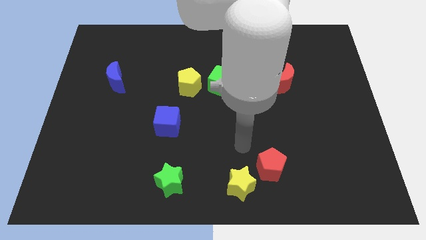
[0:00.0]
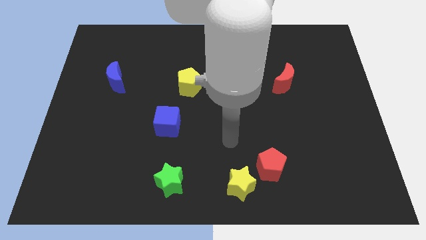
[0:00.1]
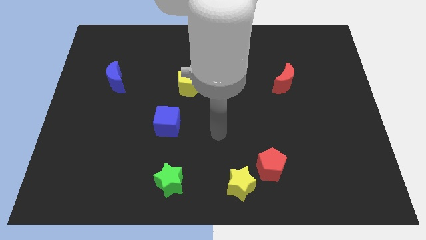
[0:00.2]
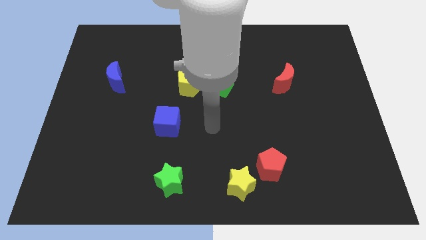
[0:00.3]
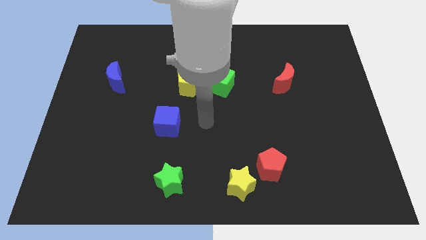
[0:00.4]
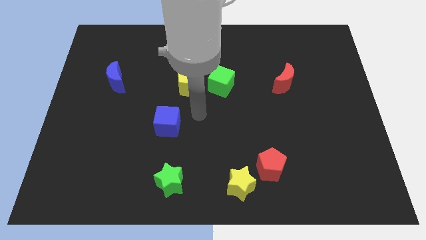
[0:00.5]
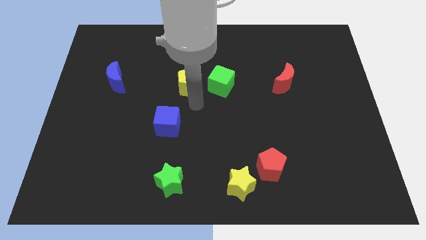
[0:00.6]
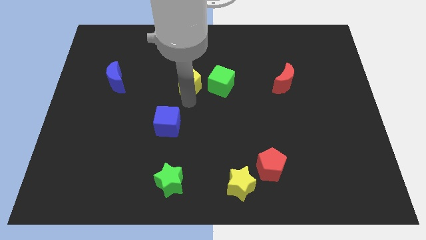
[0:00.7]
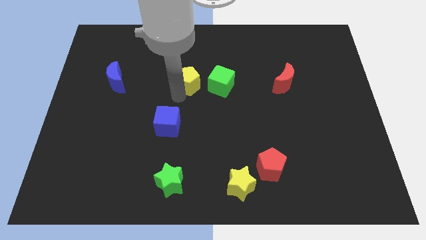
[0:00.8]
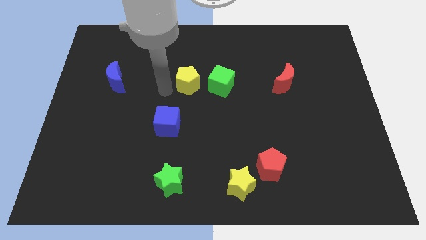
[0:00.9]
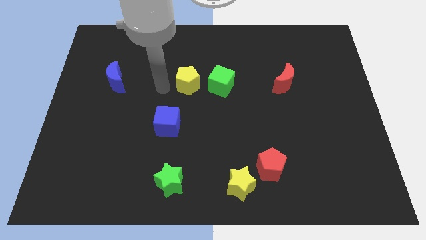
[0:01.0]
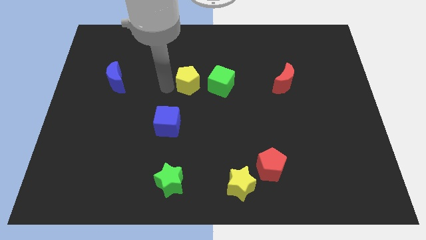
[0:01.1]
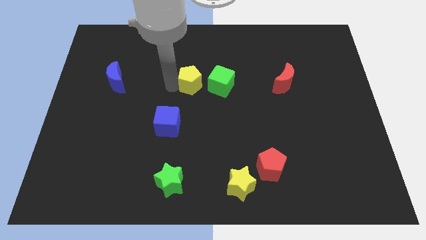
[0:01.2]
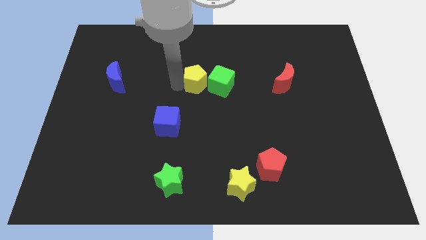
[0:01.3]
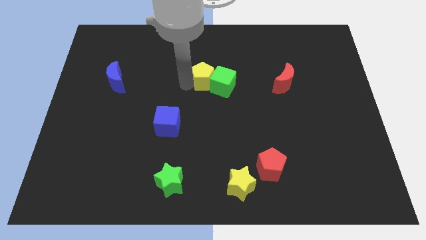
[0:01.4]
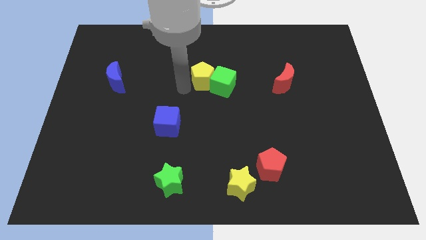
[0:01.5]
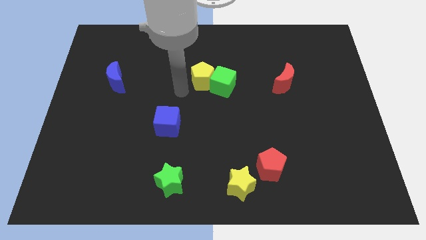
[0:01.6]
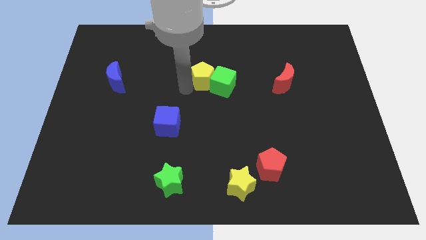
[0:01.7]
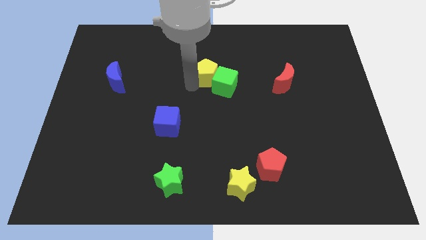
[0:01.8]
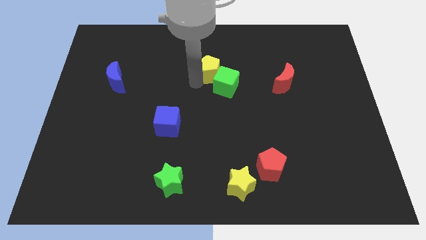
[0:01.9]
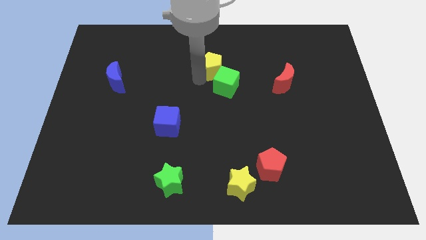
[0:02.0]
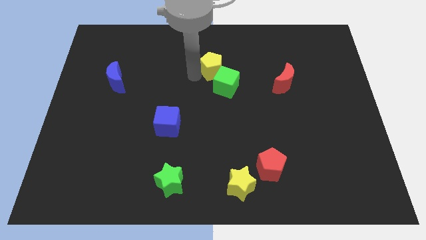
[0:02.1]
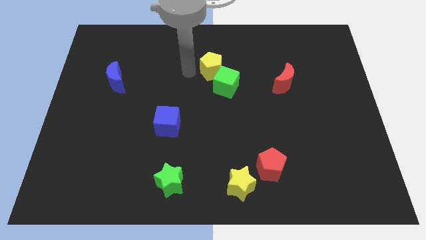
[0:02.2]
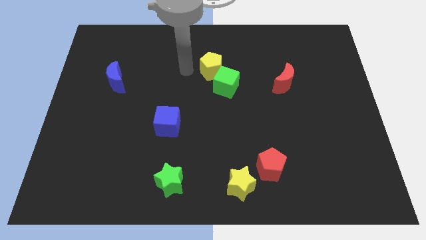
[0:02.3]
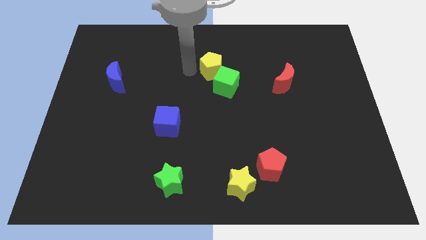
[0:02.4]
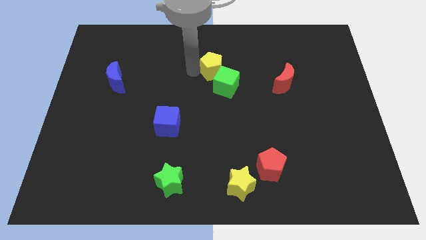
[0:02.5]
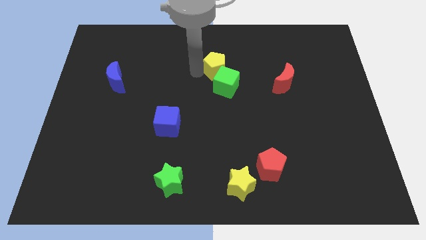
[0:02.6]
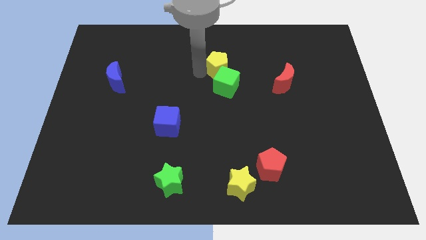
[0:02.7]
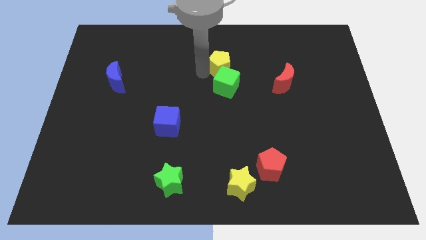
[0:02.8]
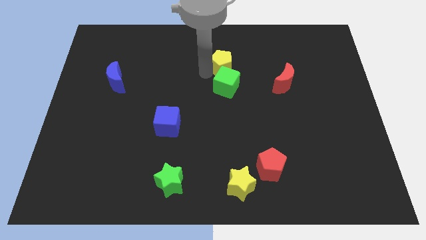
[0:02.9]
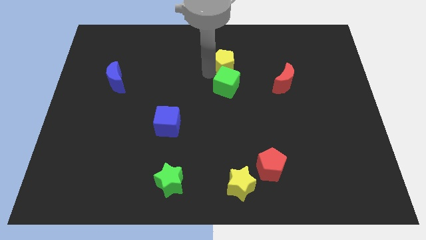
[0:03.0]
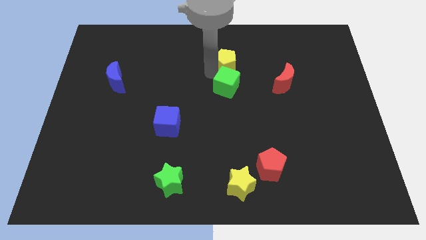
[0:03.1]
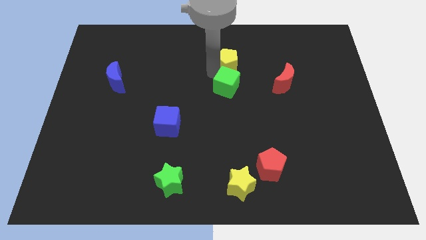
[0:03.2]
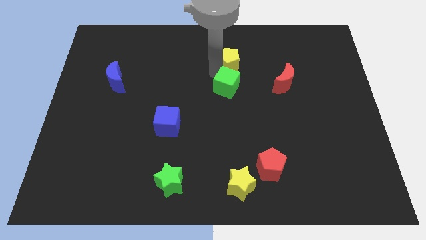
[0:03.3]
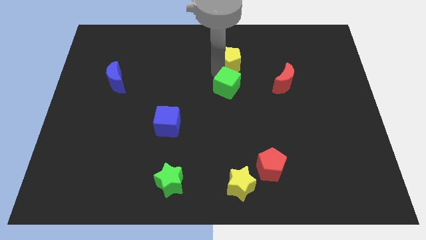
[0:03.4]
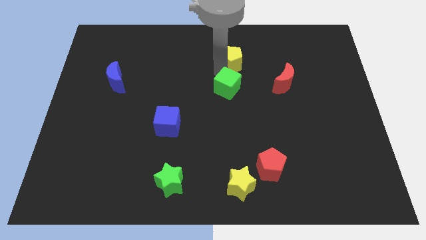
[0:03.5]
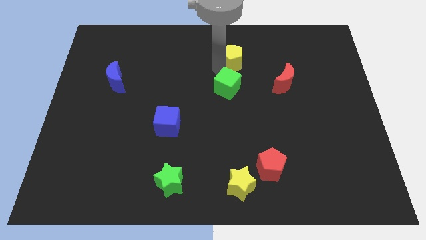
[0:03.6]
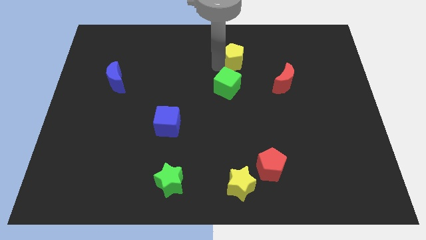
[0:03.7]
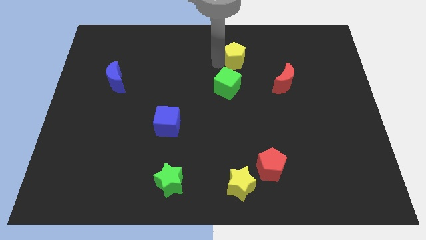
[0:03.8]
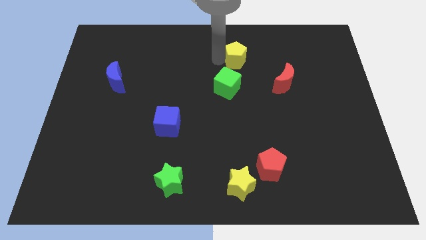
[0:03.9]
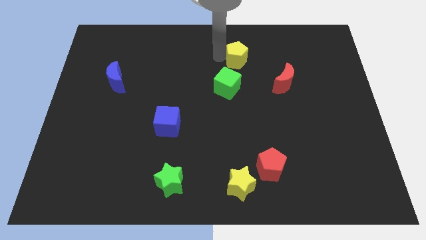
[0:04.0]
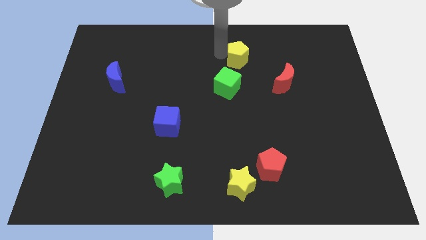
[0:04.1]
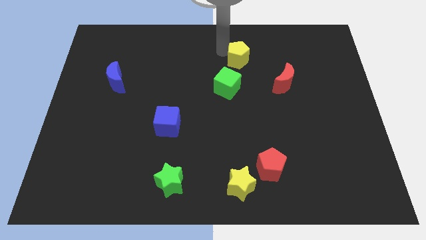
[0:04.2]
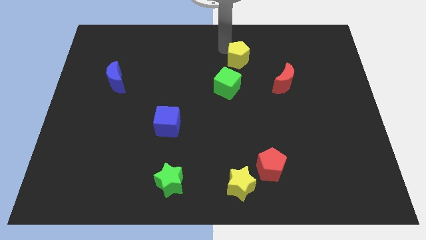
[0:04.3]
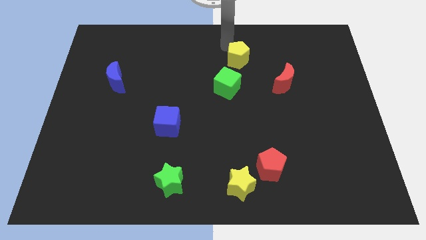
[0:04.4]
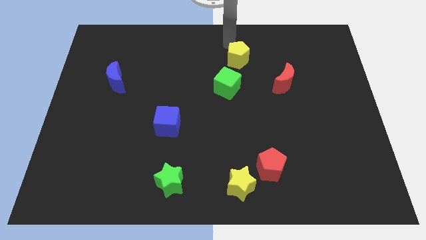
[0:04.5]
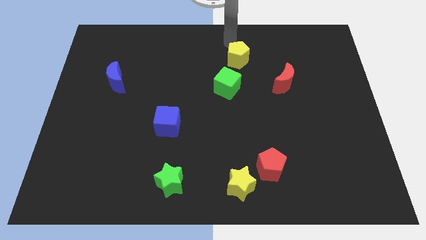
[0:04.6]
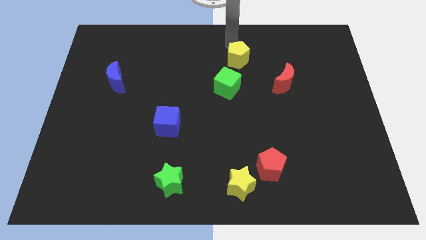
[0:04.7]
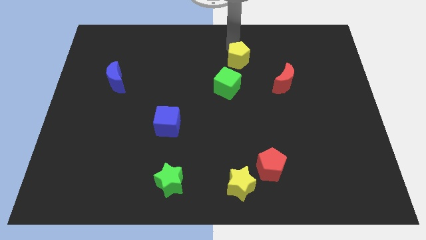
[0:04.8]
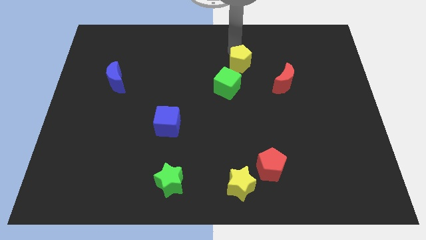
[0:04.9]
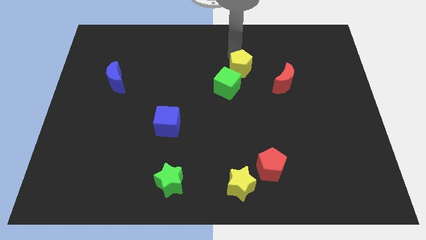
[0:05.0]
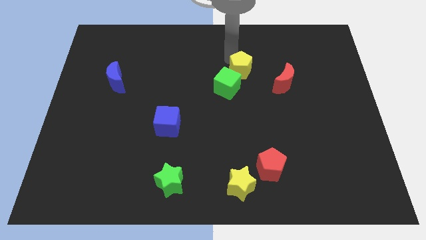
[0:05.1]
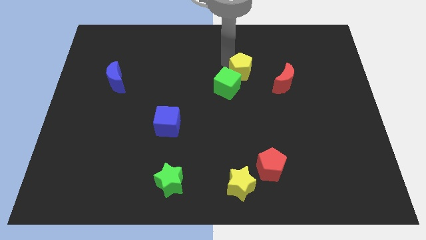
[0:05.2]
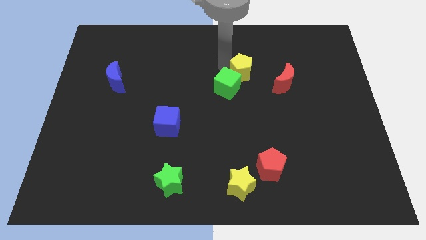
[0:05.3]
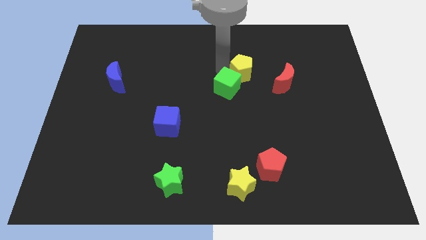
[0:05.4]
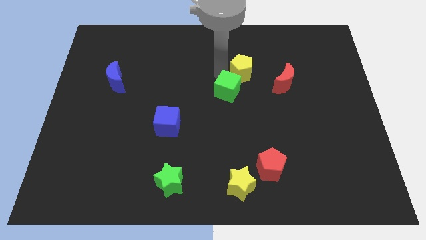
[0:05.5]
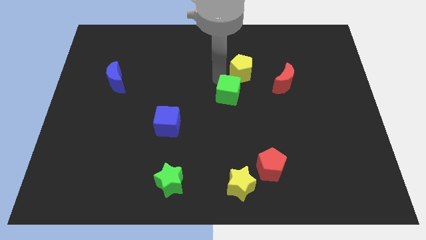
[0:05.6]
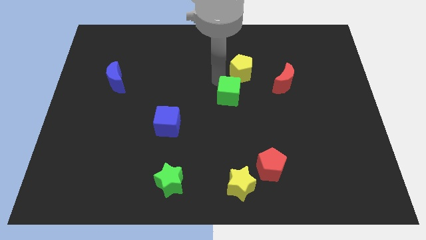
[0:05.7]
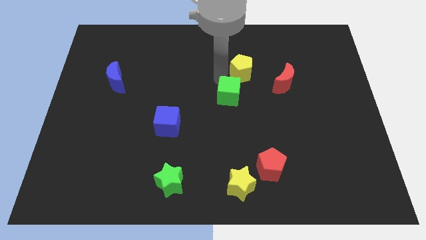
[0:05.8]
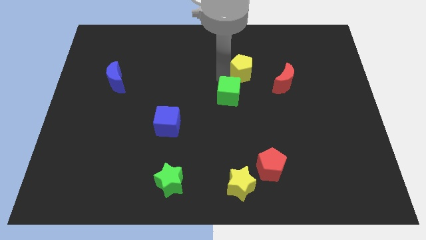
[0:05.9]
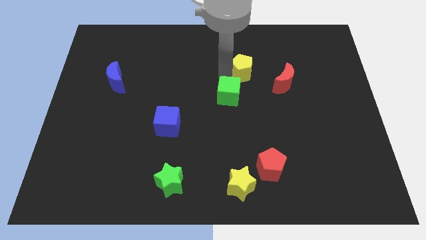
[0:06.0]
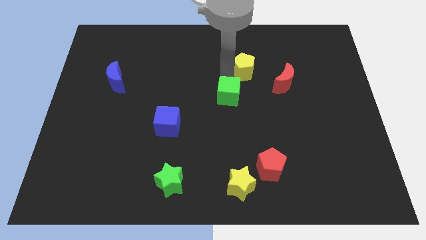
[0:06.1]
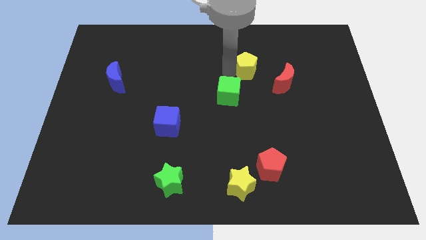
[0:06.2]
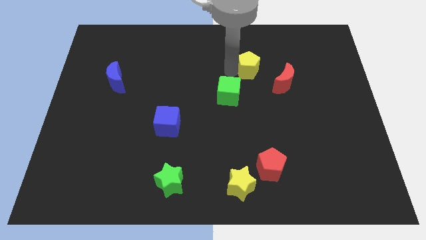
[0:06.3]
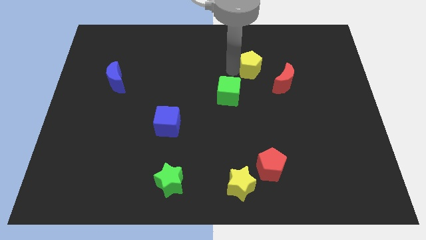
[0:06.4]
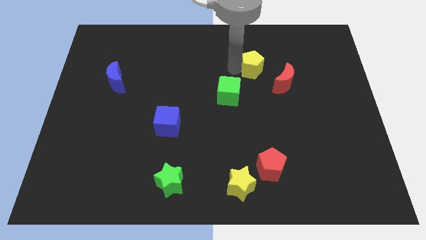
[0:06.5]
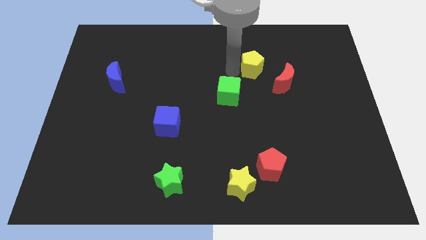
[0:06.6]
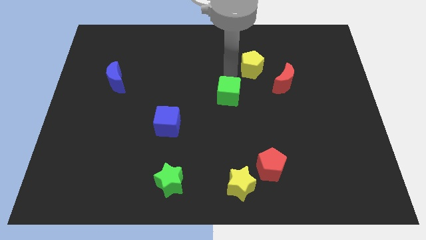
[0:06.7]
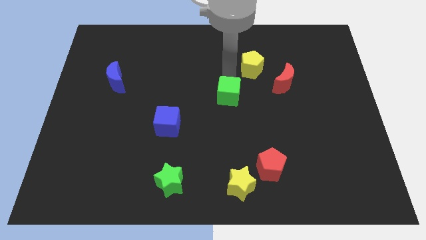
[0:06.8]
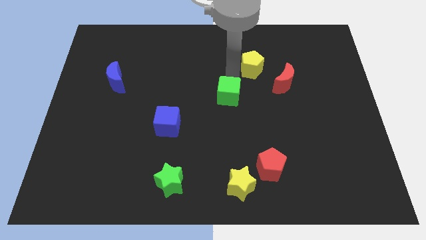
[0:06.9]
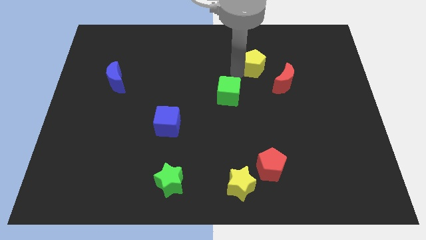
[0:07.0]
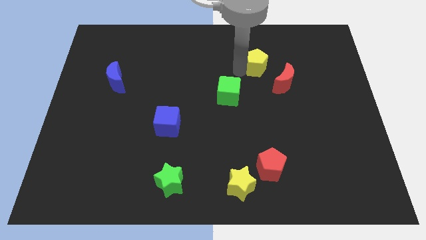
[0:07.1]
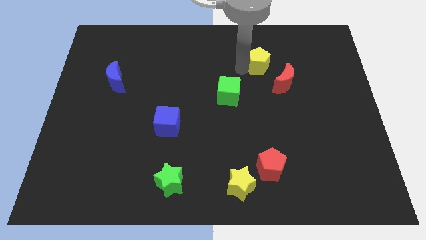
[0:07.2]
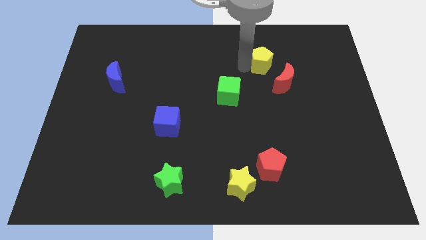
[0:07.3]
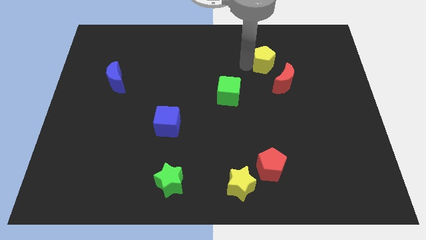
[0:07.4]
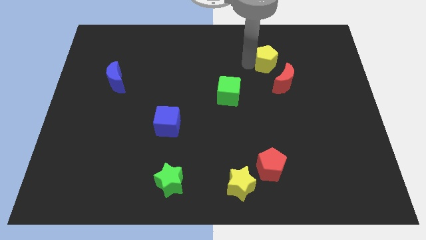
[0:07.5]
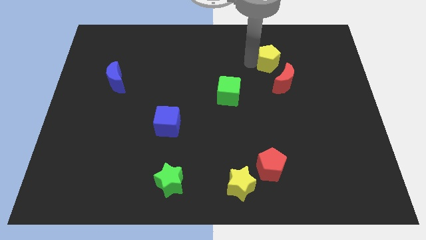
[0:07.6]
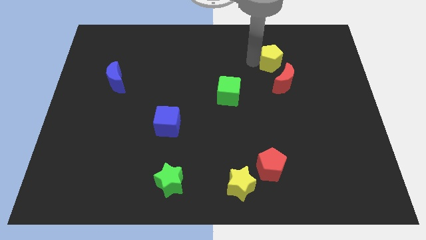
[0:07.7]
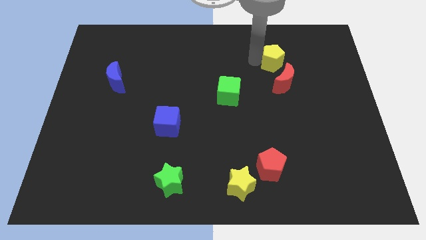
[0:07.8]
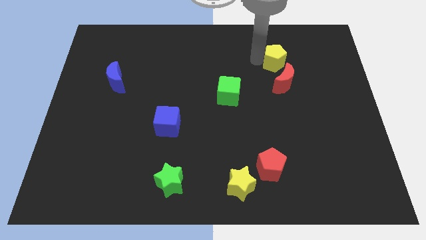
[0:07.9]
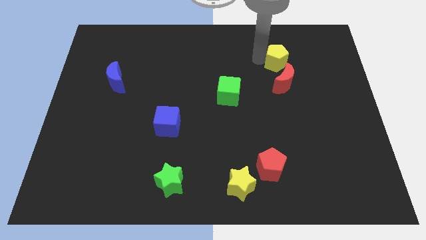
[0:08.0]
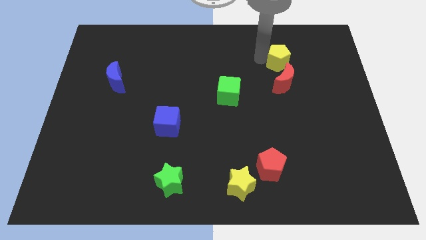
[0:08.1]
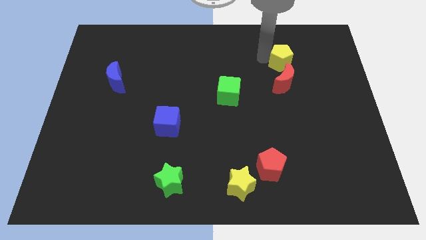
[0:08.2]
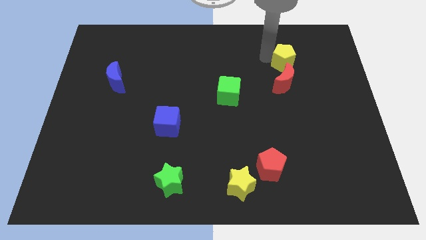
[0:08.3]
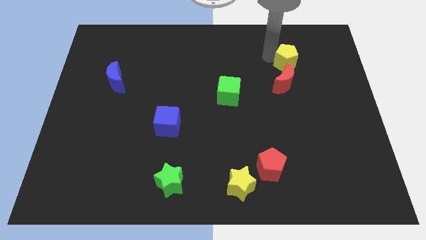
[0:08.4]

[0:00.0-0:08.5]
slide the yellow pentagon to the top right of the red moon
